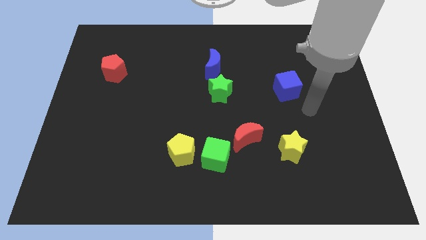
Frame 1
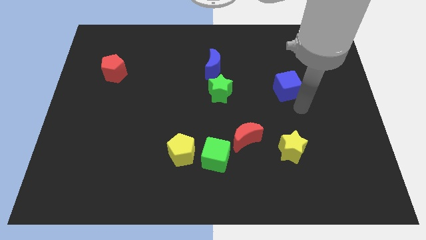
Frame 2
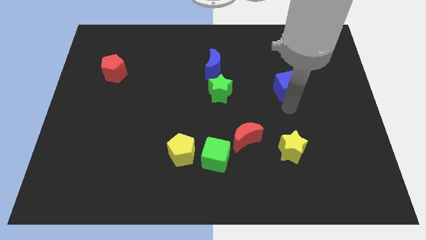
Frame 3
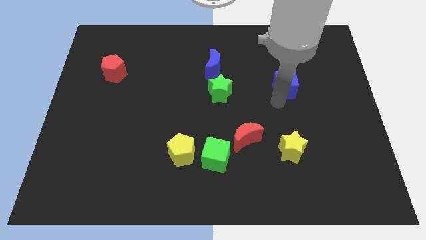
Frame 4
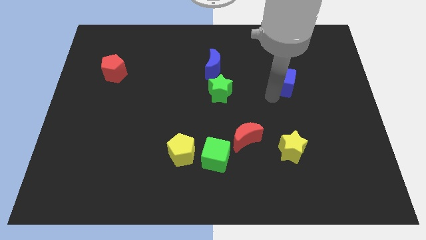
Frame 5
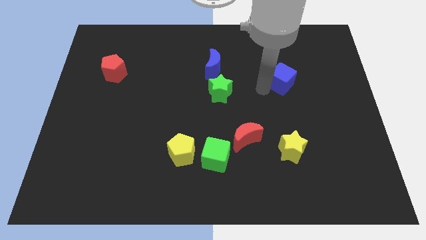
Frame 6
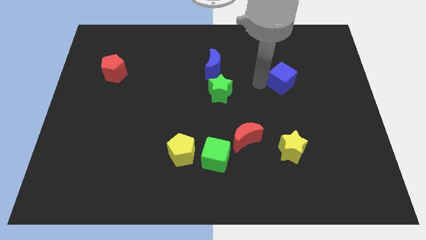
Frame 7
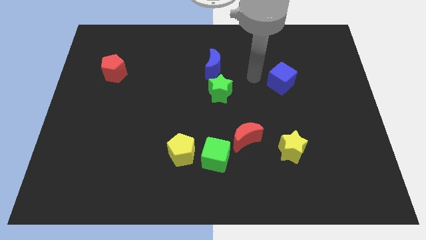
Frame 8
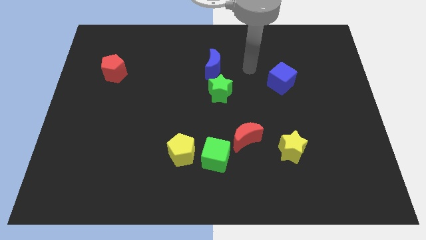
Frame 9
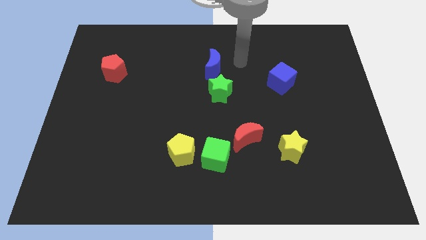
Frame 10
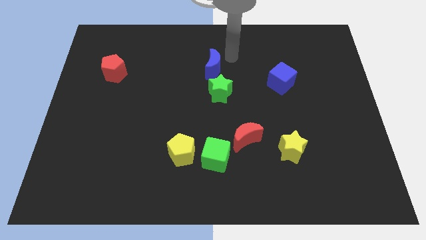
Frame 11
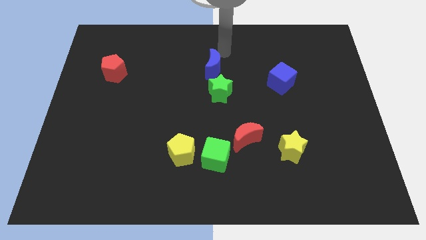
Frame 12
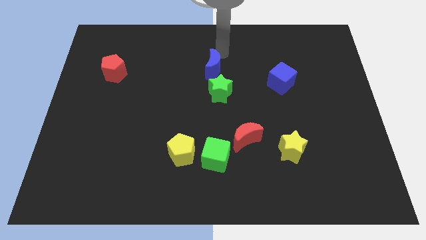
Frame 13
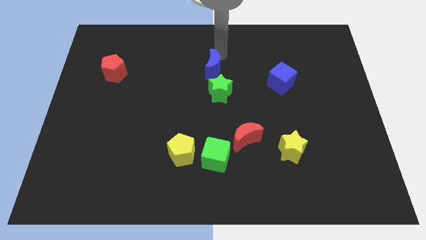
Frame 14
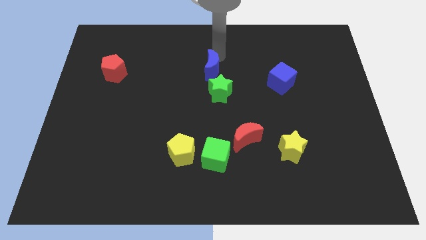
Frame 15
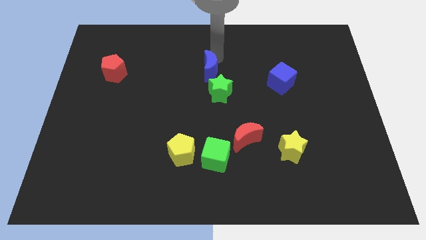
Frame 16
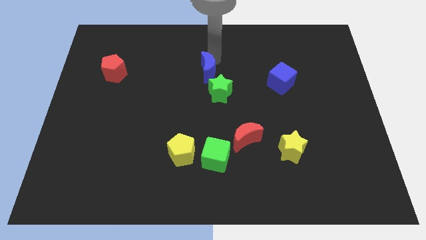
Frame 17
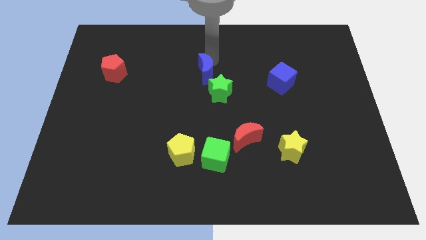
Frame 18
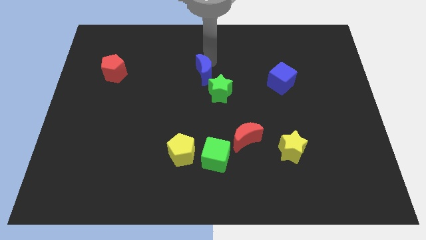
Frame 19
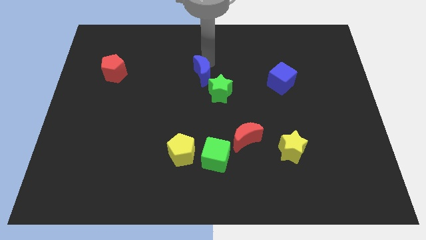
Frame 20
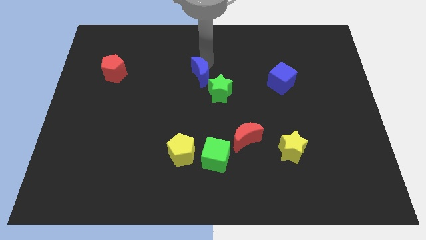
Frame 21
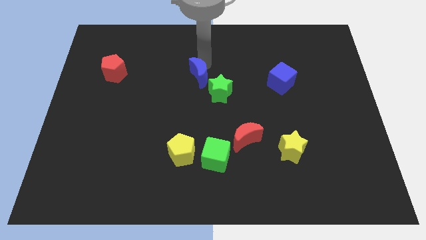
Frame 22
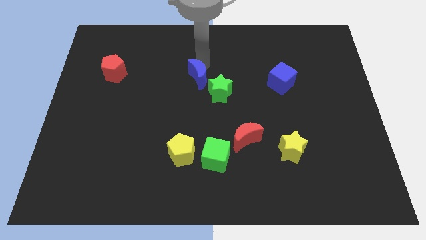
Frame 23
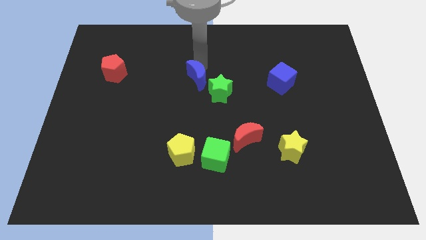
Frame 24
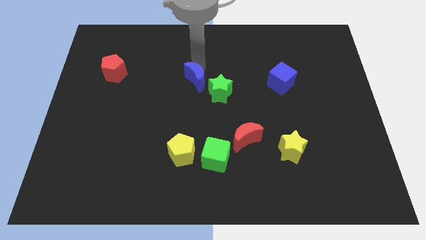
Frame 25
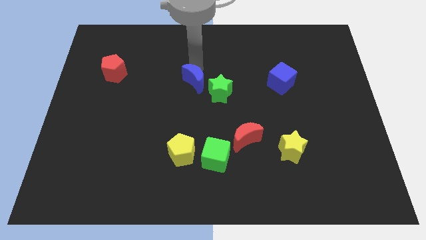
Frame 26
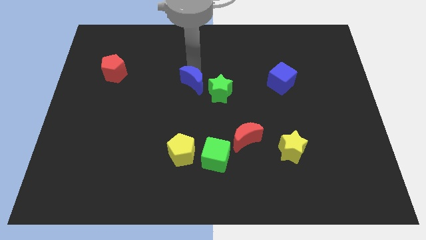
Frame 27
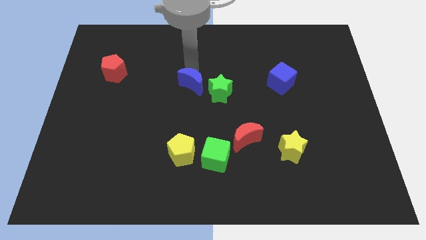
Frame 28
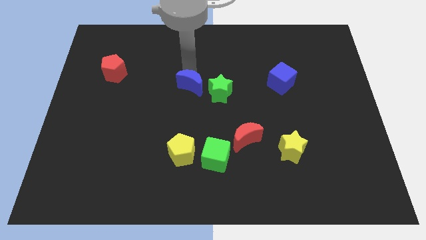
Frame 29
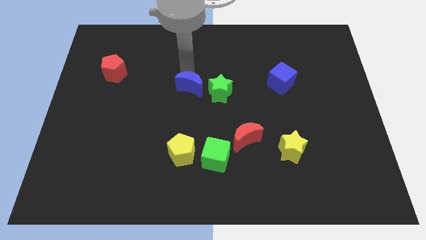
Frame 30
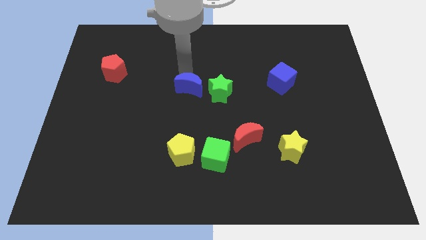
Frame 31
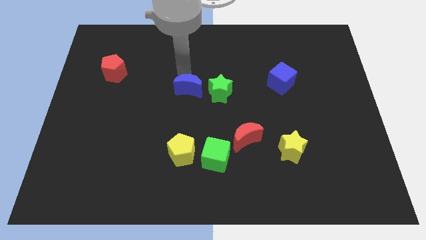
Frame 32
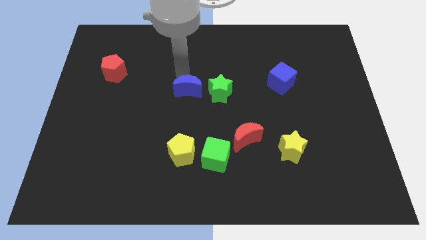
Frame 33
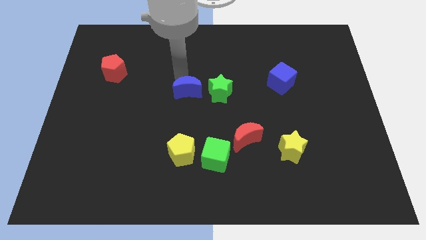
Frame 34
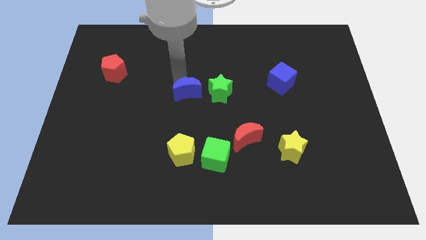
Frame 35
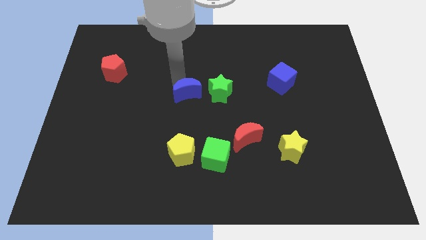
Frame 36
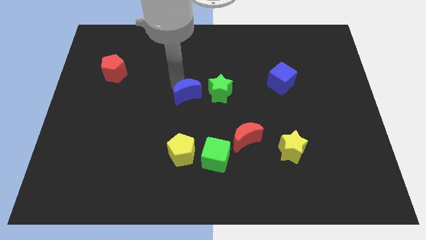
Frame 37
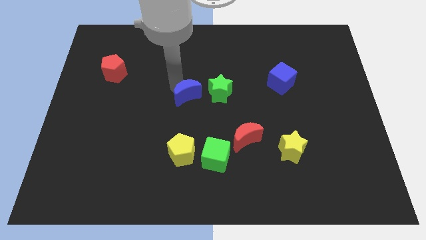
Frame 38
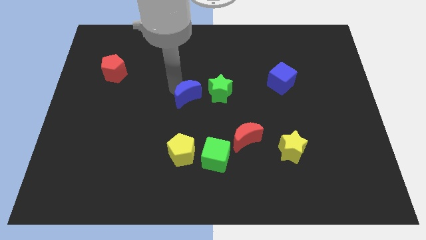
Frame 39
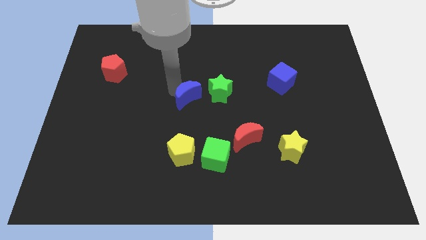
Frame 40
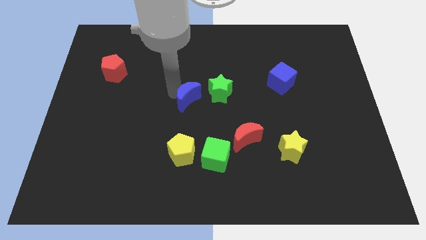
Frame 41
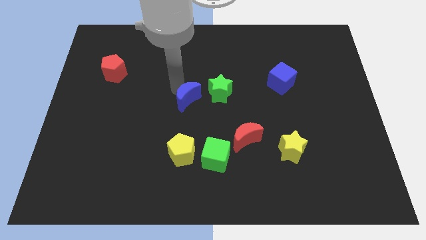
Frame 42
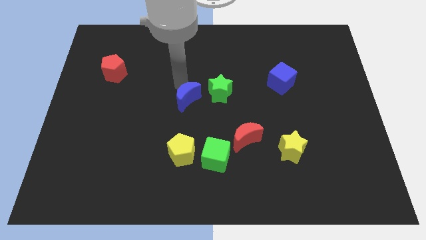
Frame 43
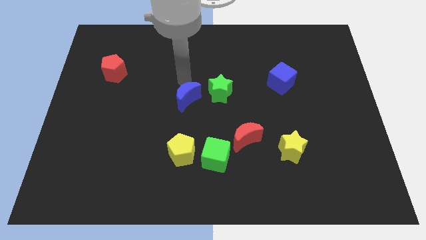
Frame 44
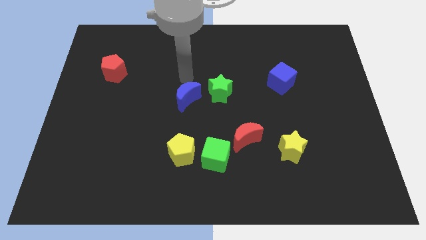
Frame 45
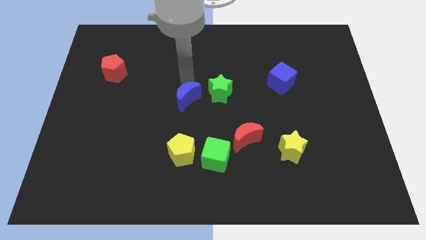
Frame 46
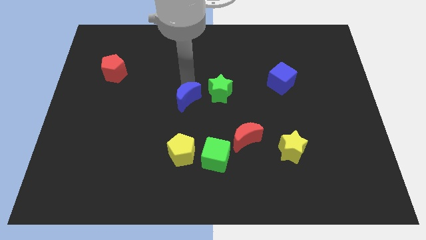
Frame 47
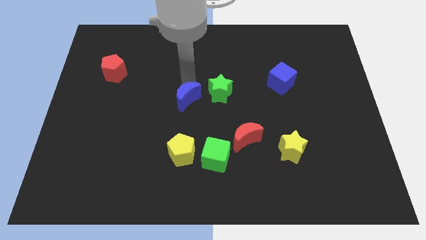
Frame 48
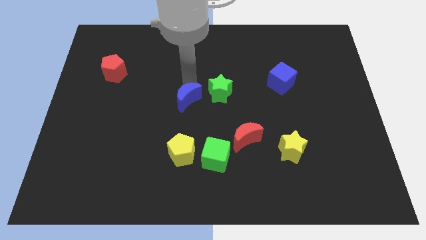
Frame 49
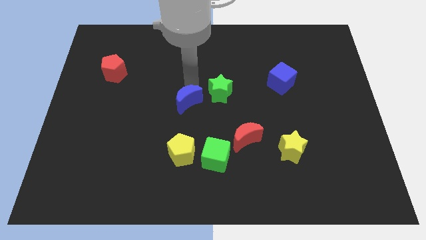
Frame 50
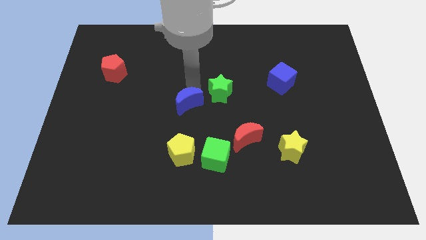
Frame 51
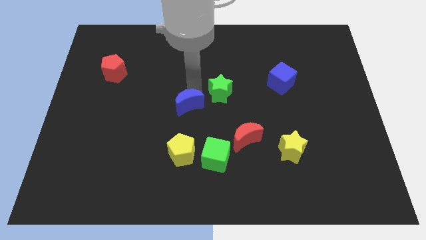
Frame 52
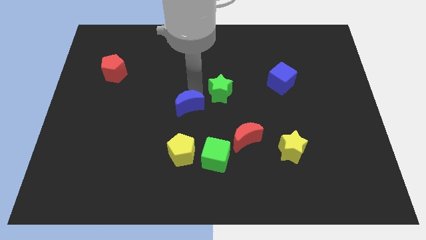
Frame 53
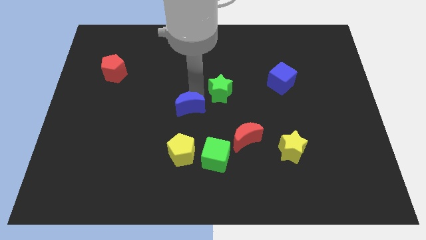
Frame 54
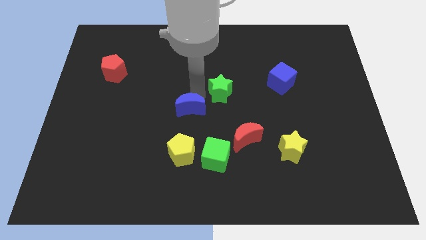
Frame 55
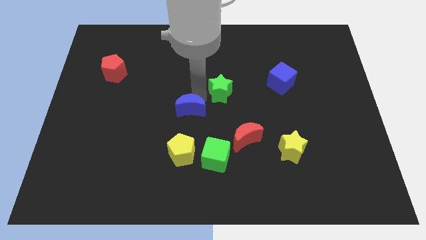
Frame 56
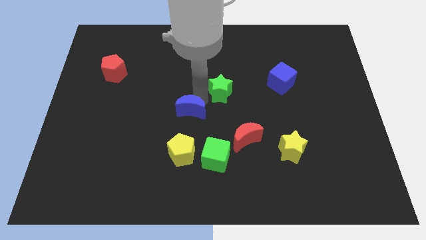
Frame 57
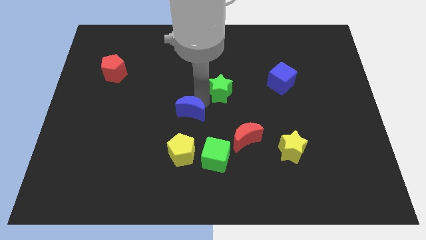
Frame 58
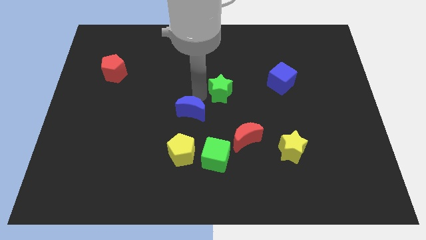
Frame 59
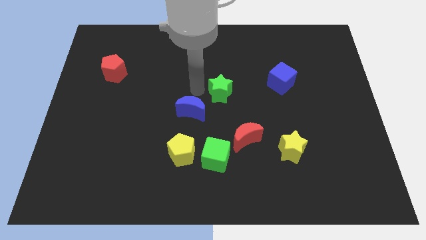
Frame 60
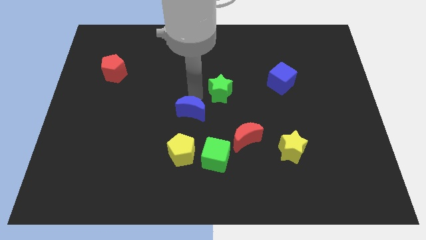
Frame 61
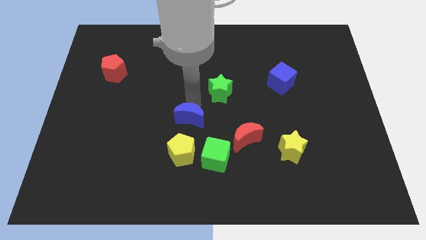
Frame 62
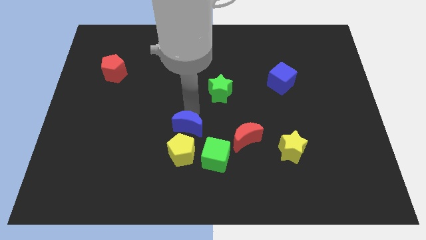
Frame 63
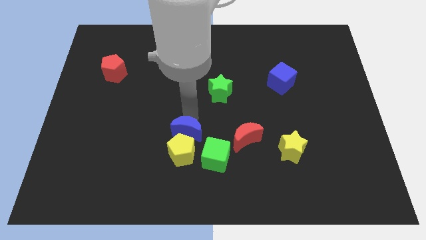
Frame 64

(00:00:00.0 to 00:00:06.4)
push the blue moon close to the yellow pentagon

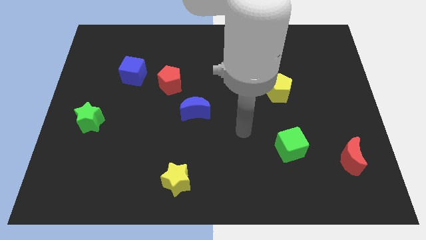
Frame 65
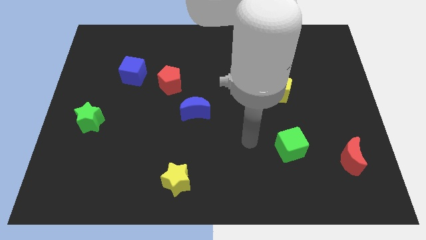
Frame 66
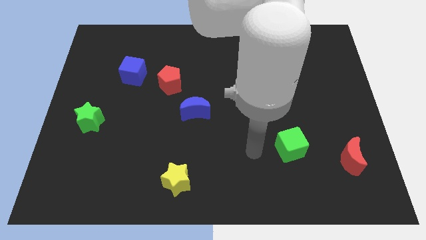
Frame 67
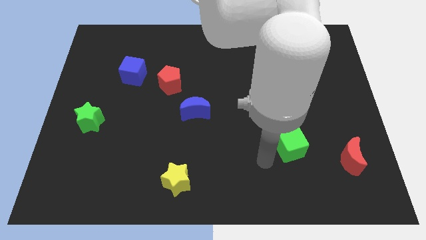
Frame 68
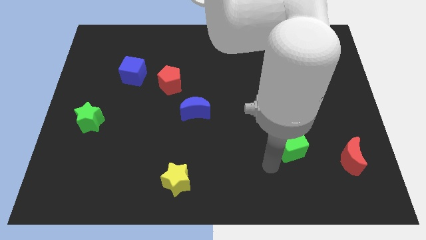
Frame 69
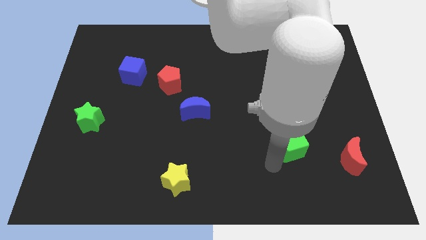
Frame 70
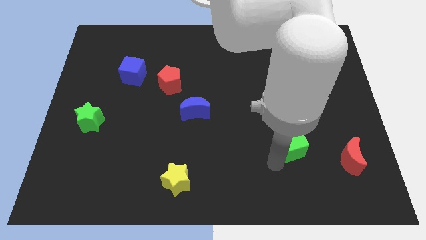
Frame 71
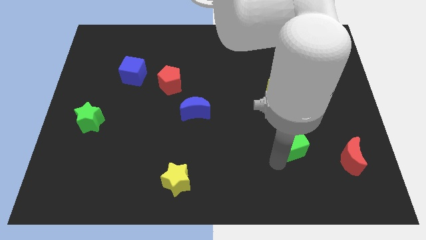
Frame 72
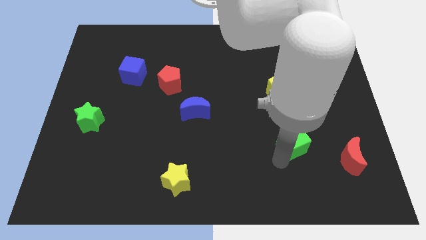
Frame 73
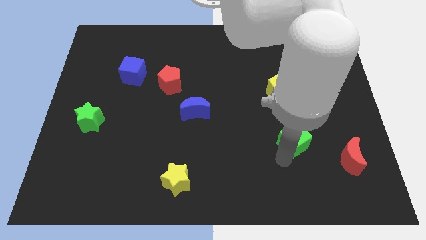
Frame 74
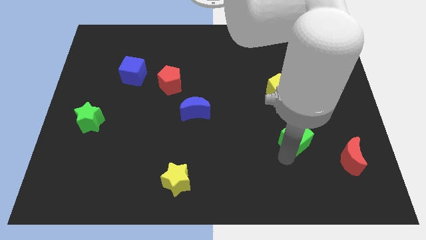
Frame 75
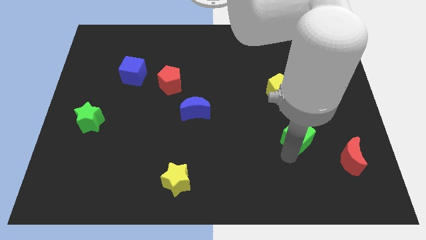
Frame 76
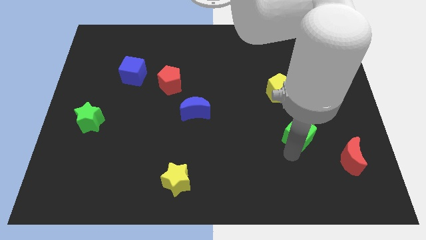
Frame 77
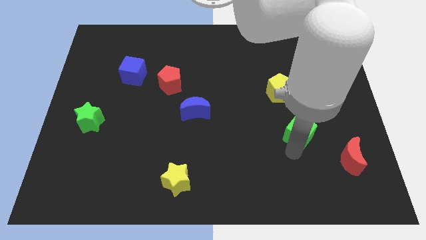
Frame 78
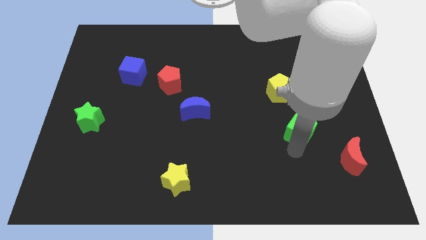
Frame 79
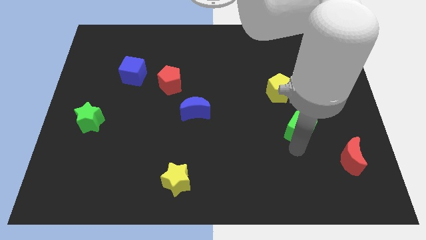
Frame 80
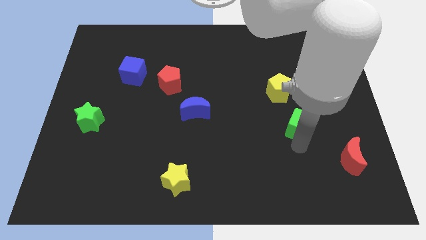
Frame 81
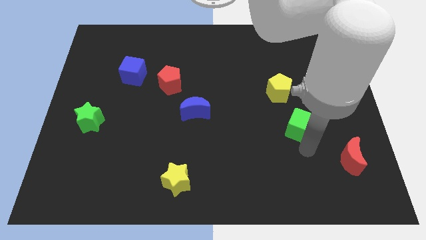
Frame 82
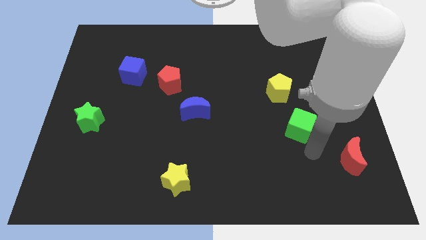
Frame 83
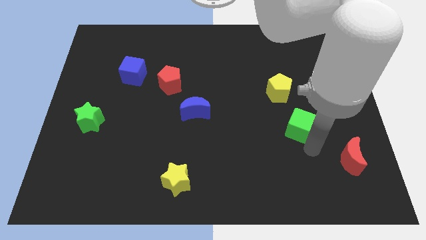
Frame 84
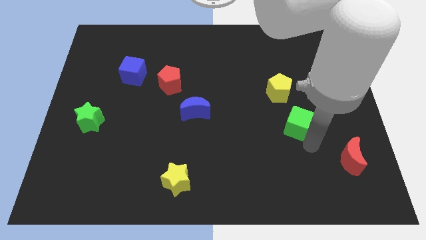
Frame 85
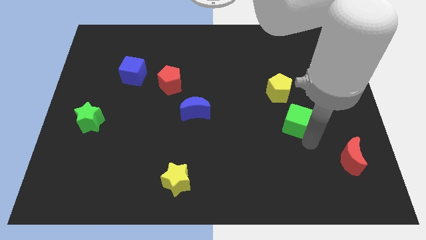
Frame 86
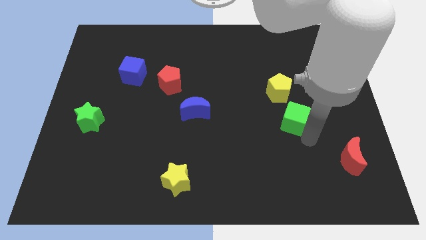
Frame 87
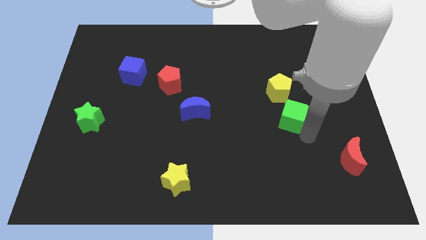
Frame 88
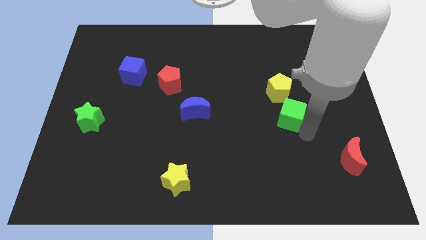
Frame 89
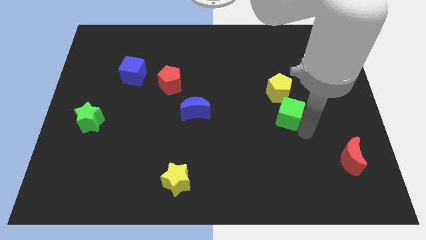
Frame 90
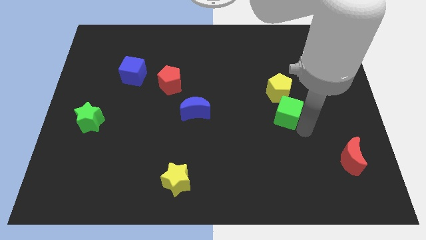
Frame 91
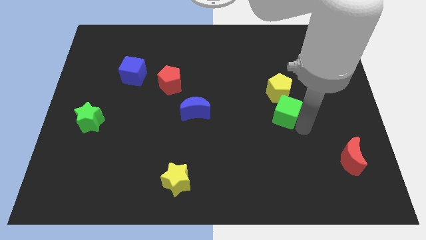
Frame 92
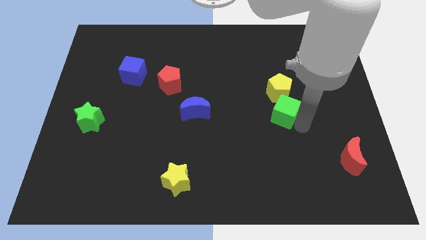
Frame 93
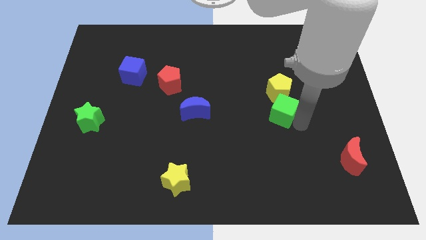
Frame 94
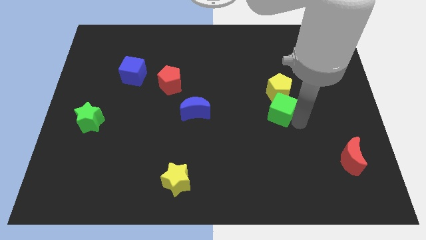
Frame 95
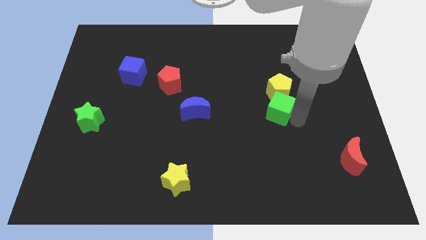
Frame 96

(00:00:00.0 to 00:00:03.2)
put the green cube next to the yellow pentagon
